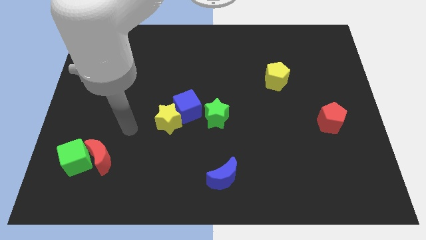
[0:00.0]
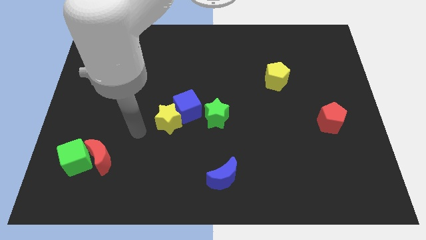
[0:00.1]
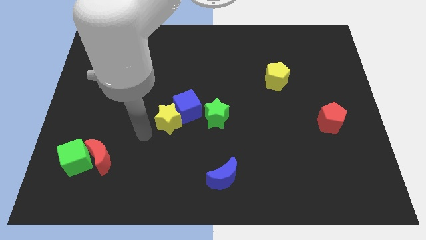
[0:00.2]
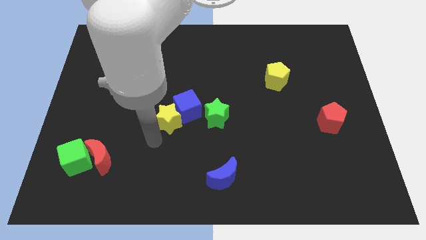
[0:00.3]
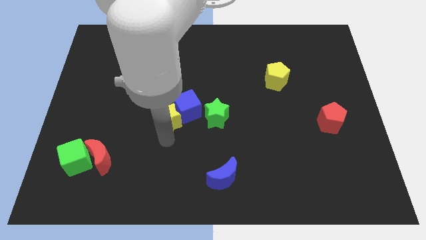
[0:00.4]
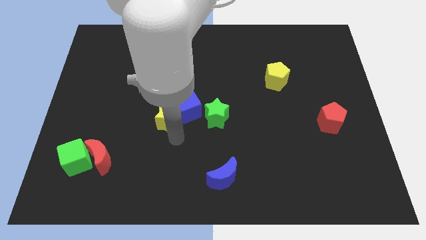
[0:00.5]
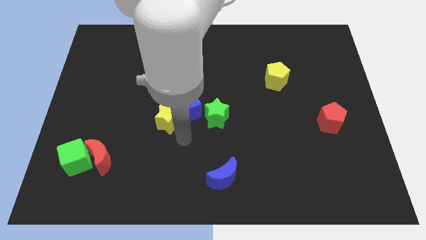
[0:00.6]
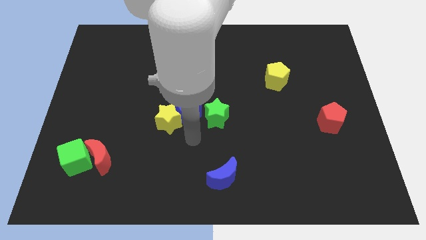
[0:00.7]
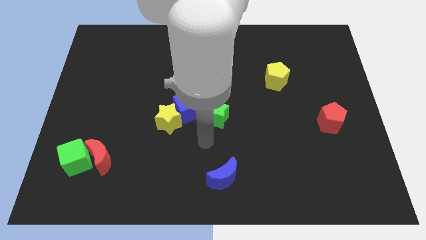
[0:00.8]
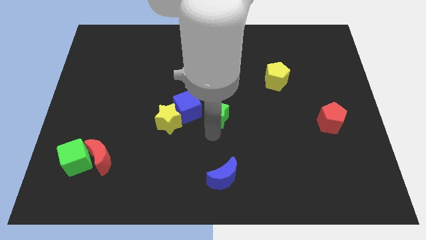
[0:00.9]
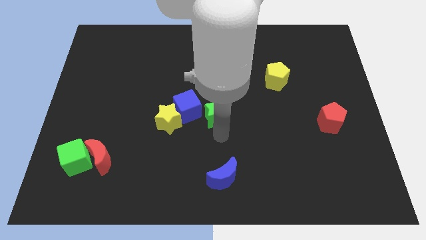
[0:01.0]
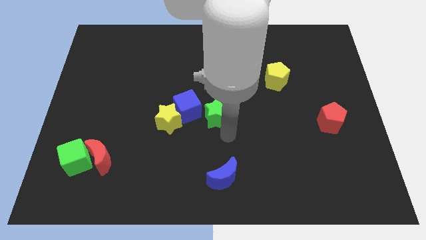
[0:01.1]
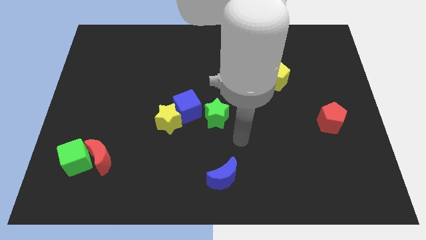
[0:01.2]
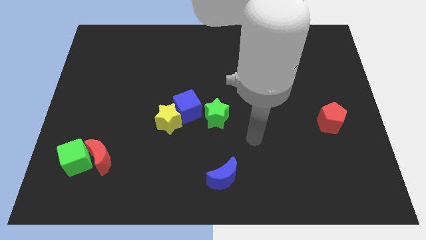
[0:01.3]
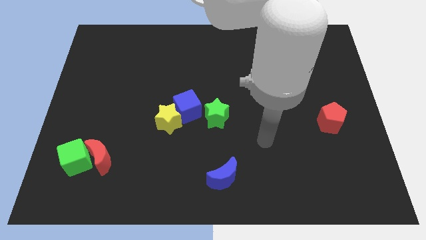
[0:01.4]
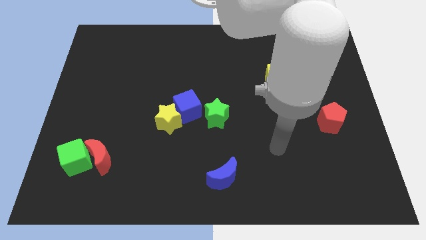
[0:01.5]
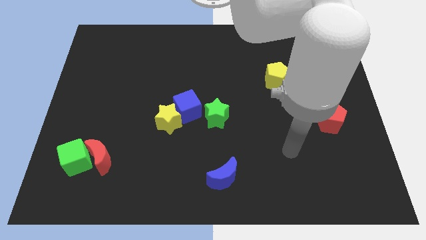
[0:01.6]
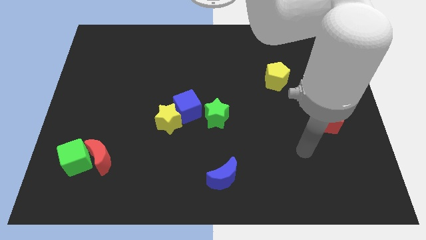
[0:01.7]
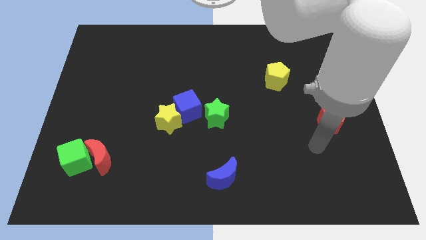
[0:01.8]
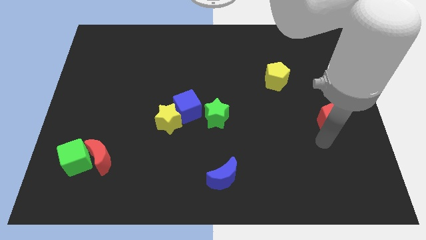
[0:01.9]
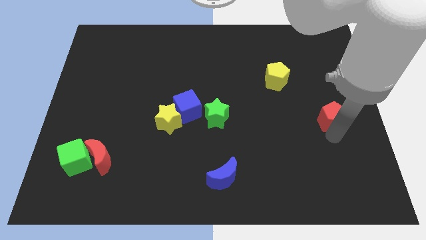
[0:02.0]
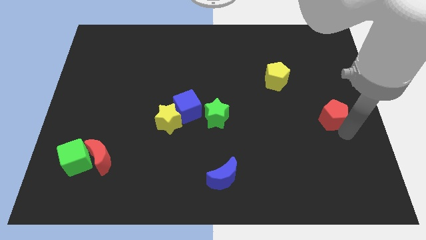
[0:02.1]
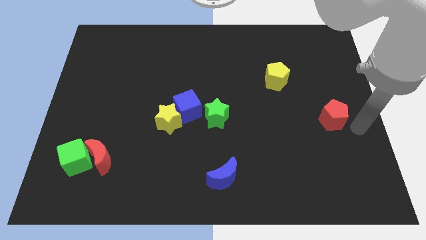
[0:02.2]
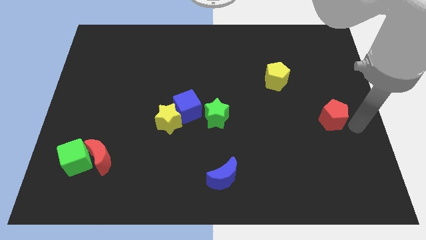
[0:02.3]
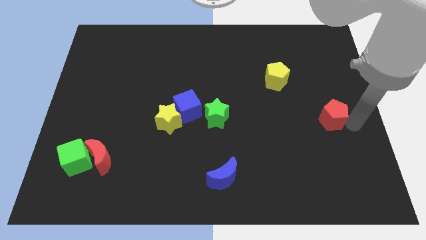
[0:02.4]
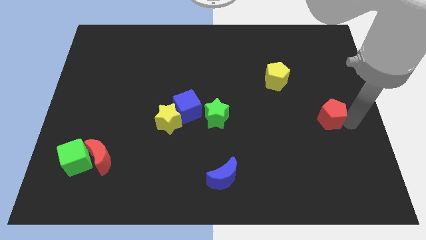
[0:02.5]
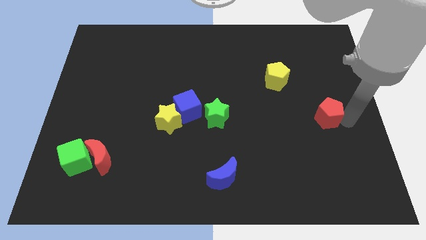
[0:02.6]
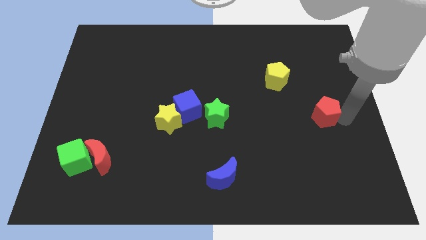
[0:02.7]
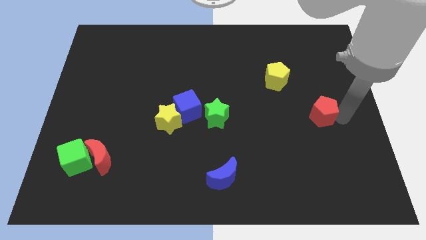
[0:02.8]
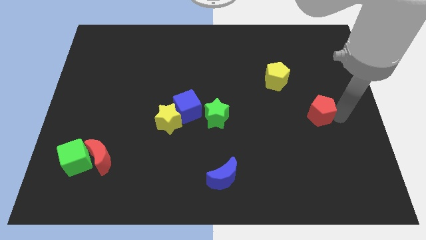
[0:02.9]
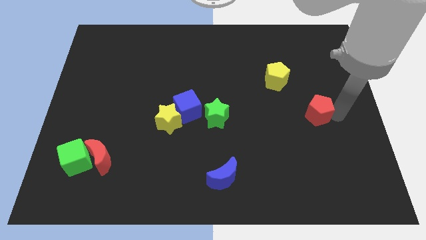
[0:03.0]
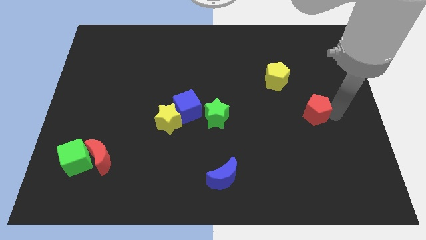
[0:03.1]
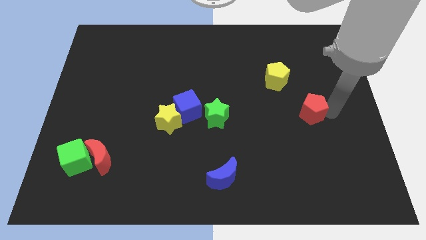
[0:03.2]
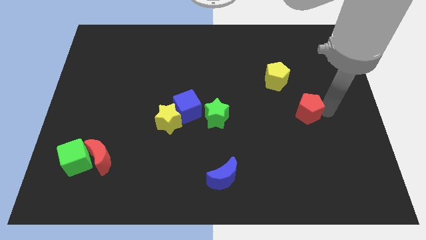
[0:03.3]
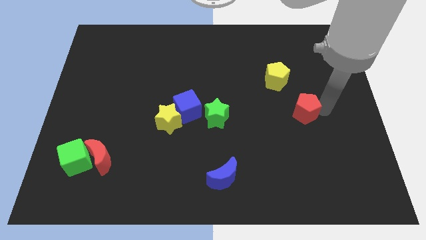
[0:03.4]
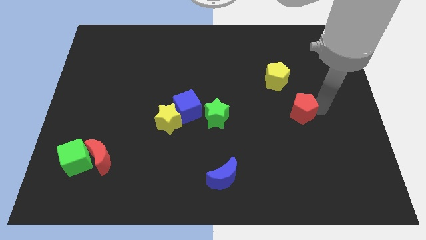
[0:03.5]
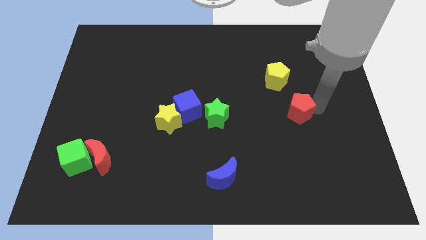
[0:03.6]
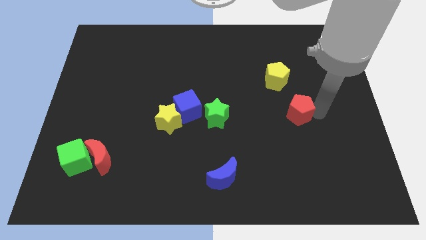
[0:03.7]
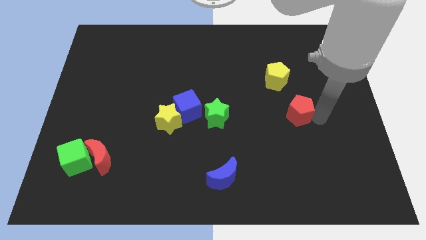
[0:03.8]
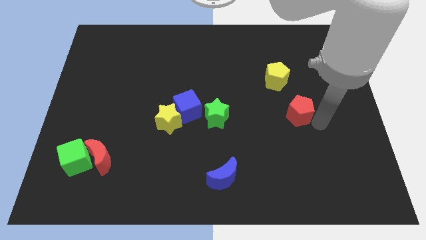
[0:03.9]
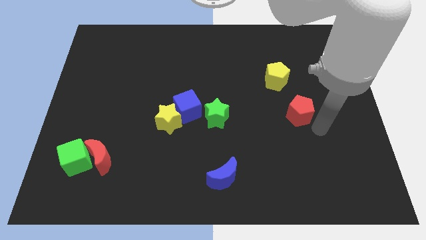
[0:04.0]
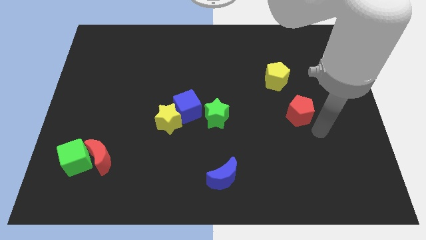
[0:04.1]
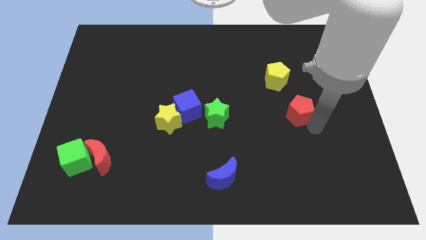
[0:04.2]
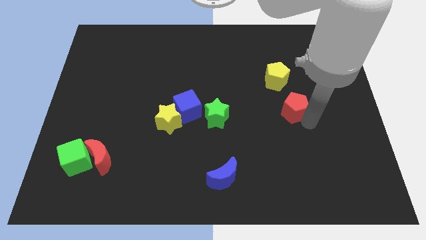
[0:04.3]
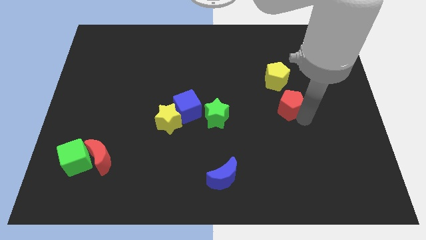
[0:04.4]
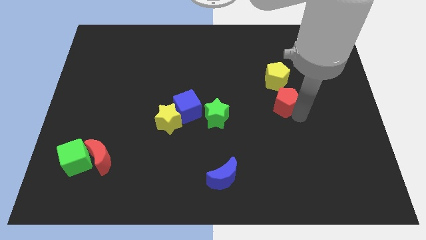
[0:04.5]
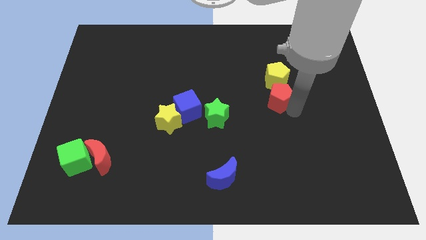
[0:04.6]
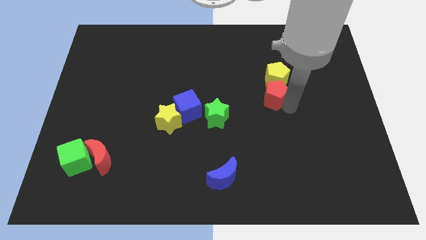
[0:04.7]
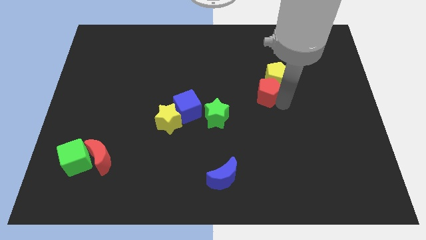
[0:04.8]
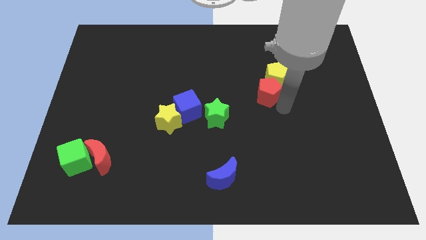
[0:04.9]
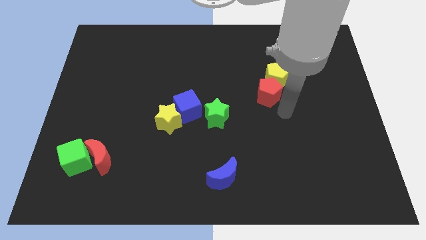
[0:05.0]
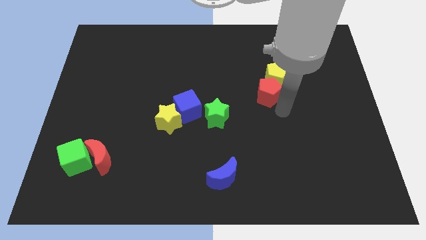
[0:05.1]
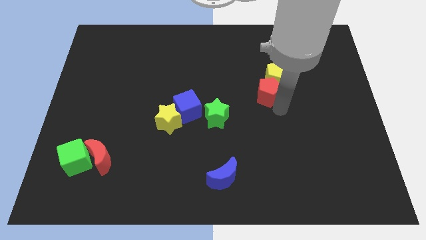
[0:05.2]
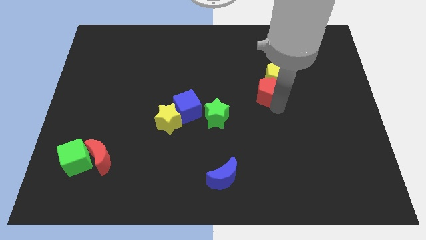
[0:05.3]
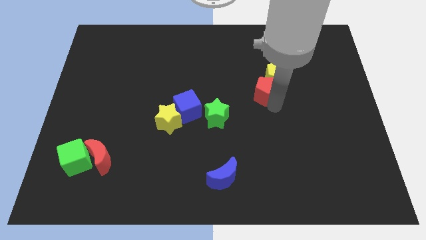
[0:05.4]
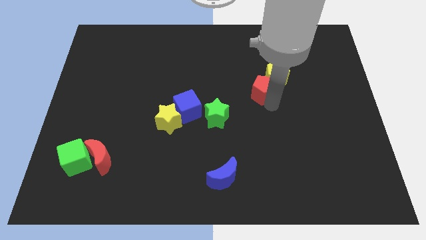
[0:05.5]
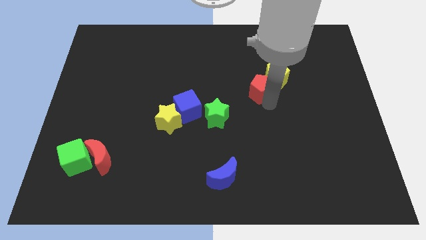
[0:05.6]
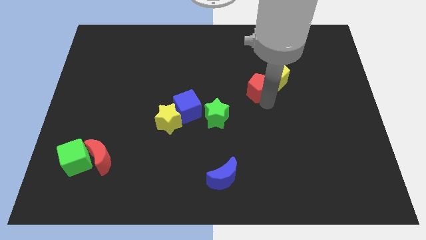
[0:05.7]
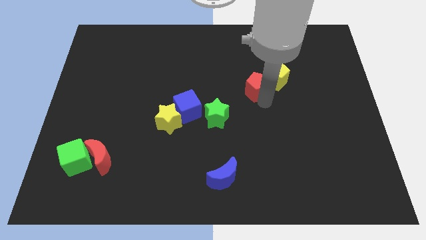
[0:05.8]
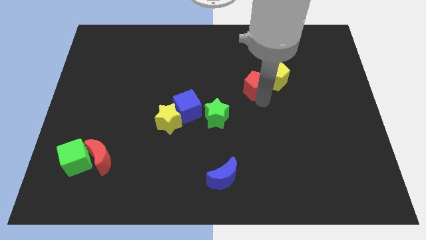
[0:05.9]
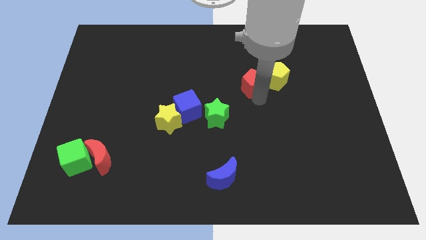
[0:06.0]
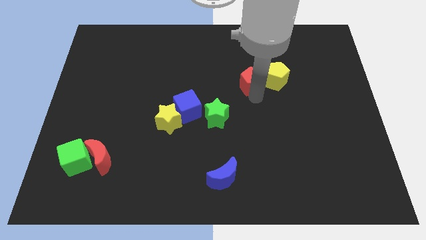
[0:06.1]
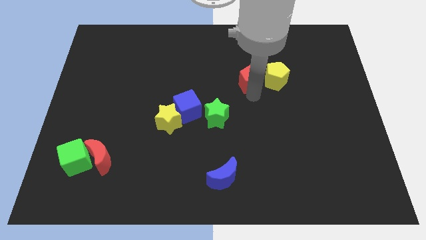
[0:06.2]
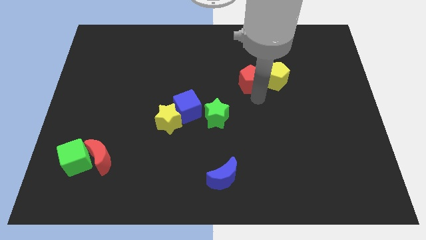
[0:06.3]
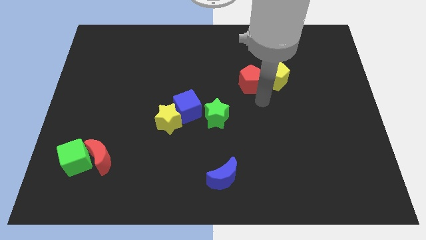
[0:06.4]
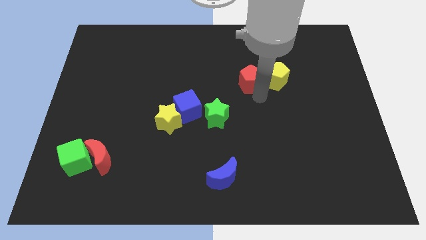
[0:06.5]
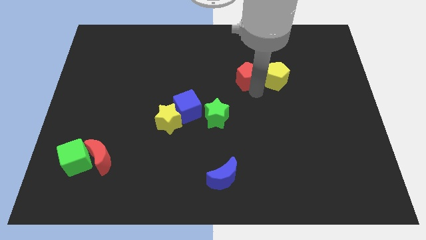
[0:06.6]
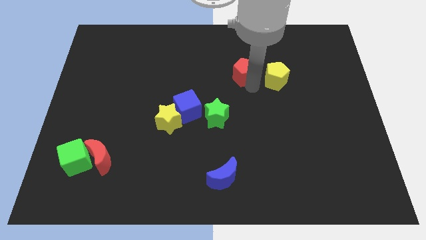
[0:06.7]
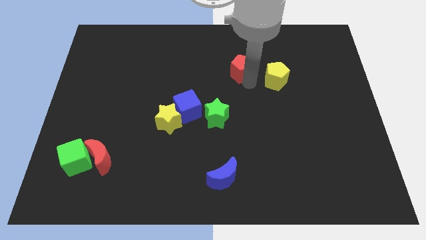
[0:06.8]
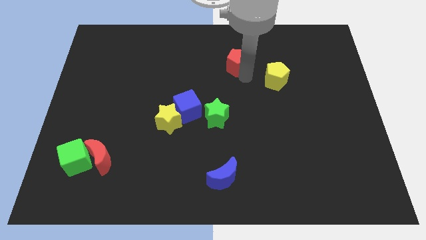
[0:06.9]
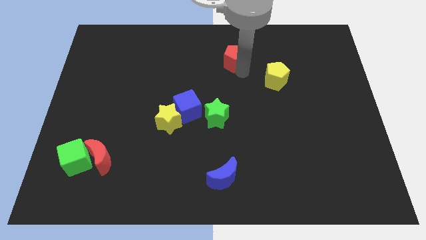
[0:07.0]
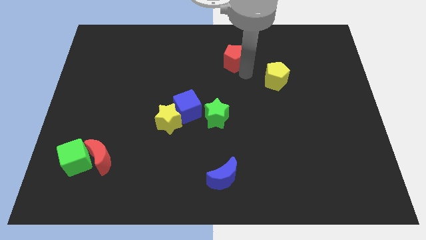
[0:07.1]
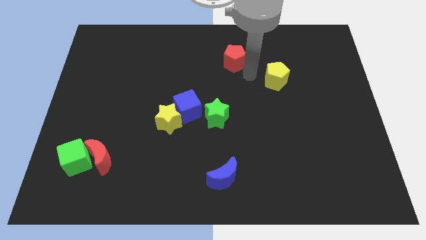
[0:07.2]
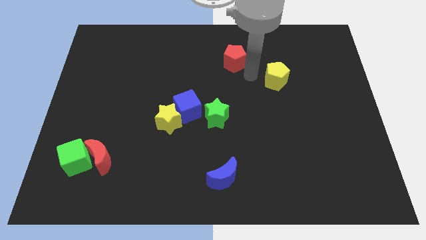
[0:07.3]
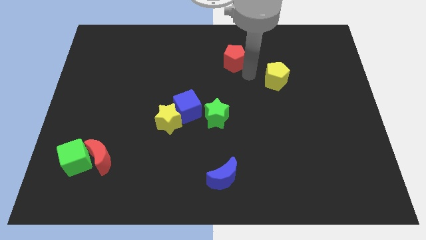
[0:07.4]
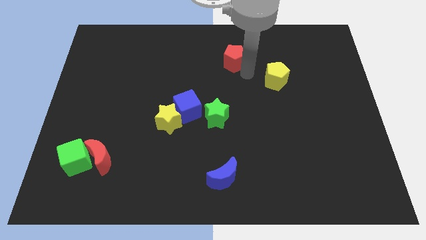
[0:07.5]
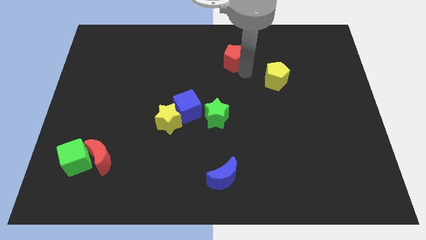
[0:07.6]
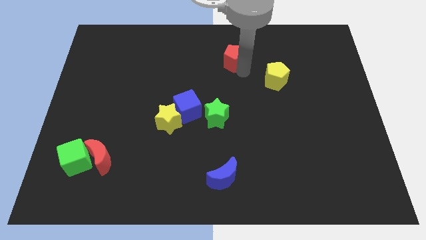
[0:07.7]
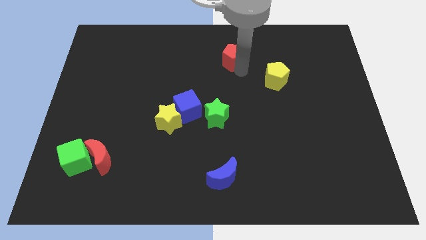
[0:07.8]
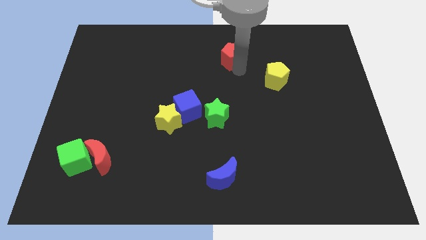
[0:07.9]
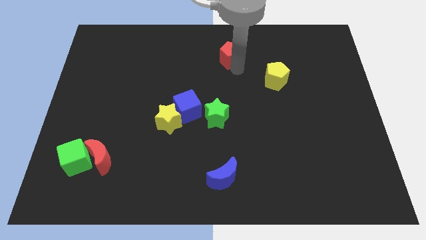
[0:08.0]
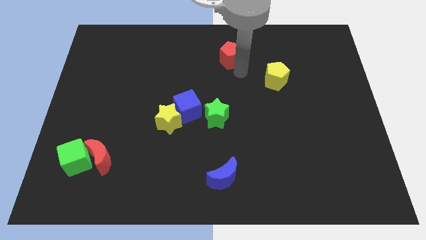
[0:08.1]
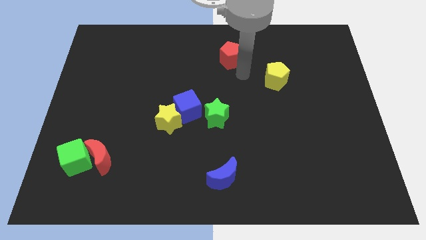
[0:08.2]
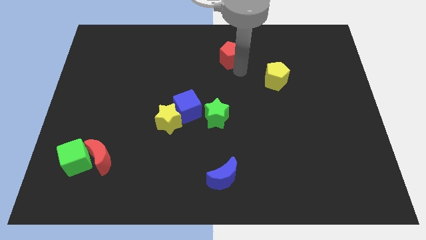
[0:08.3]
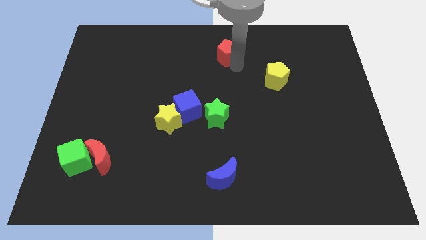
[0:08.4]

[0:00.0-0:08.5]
move the red pentagon to the top side
